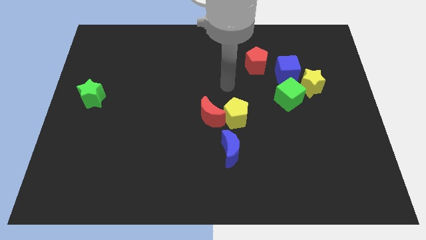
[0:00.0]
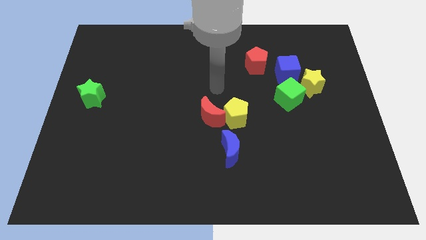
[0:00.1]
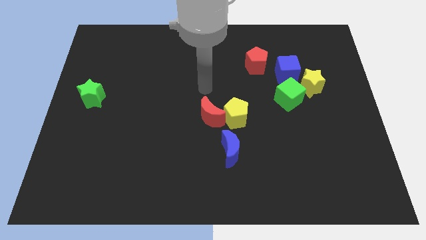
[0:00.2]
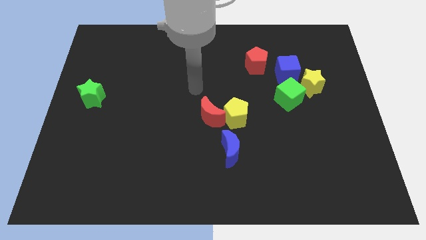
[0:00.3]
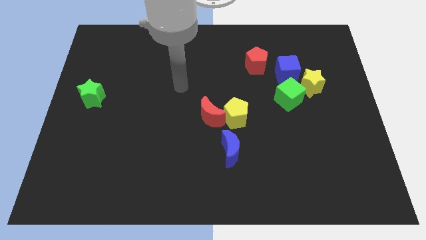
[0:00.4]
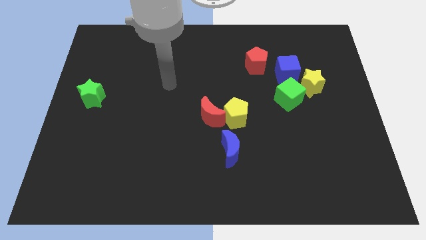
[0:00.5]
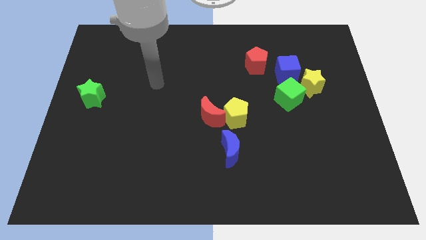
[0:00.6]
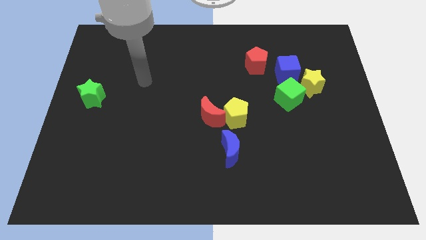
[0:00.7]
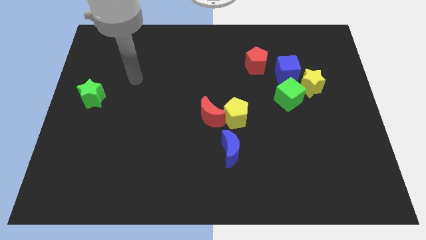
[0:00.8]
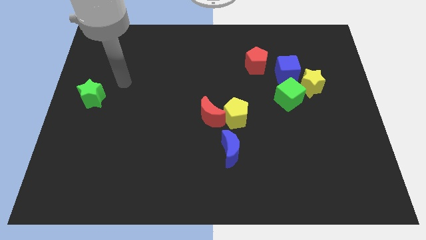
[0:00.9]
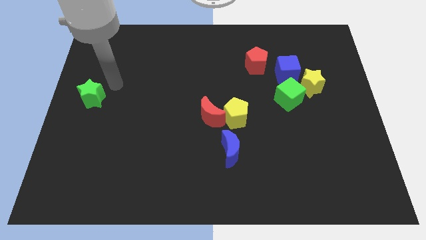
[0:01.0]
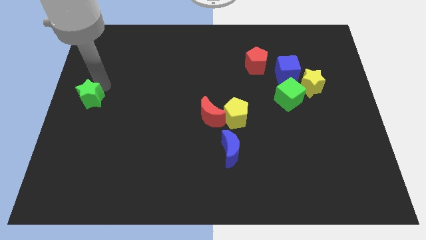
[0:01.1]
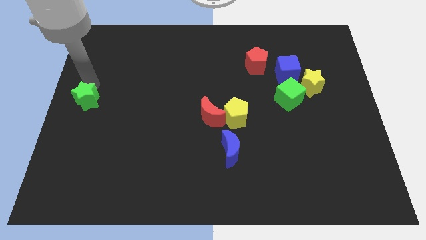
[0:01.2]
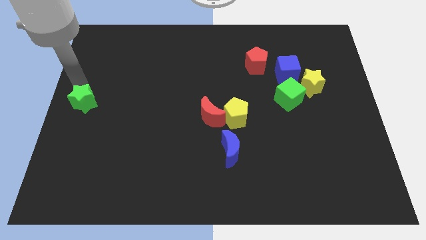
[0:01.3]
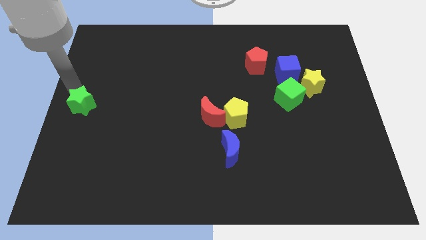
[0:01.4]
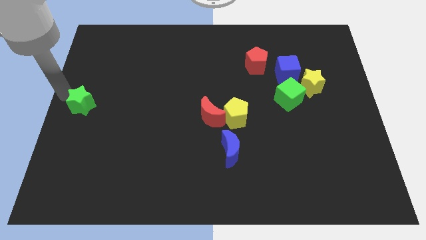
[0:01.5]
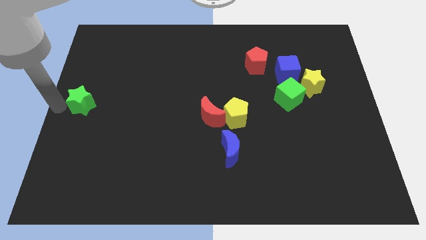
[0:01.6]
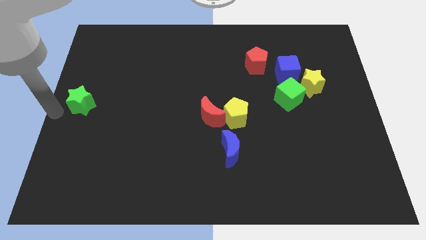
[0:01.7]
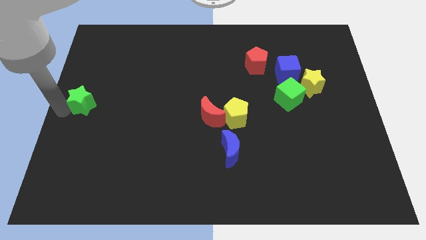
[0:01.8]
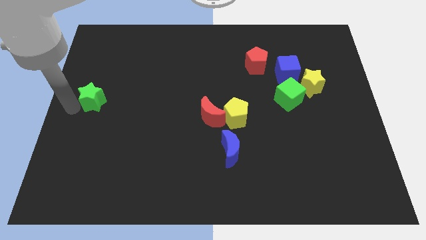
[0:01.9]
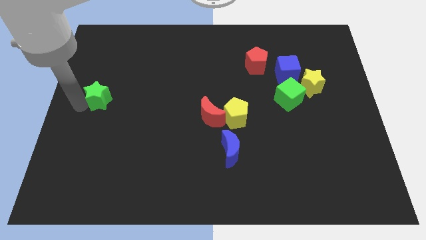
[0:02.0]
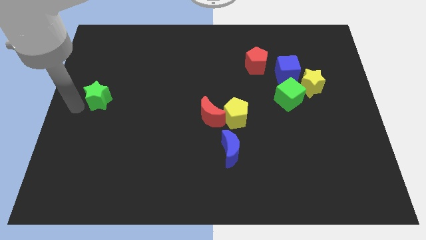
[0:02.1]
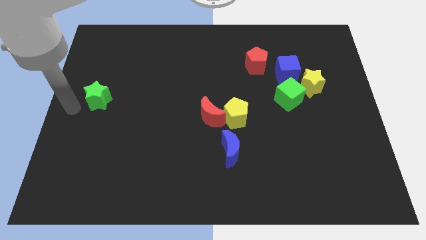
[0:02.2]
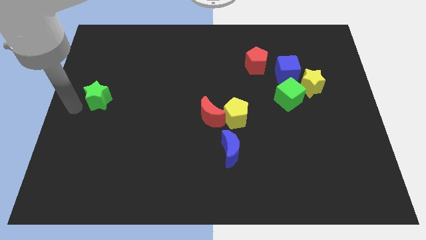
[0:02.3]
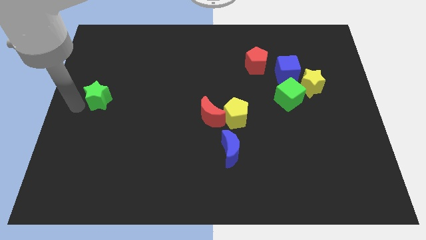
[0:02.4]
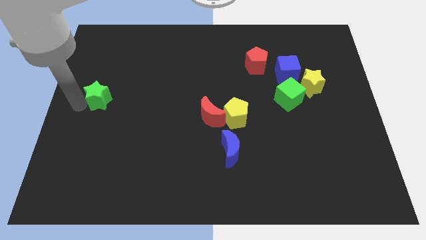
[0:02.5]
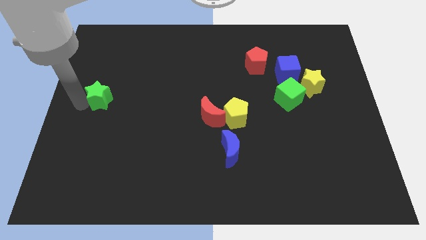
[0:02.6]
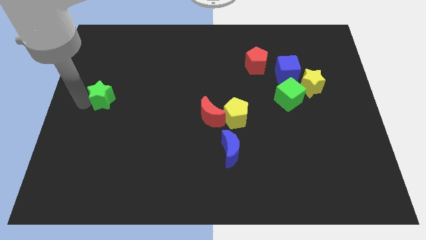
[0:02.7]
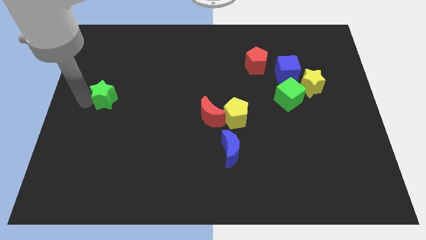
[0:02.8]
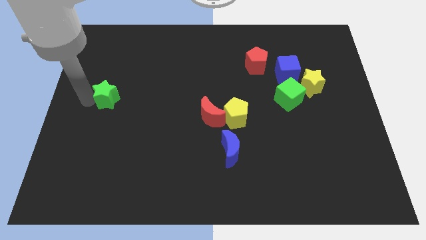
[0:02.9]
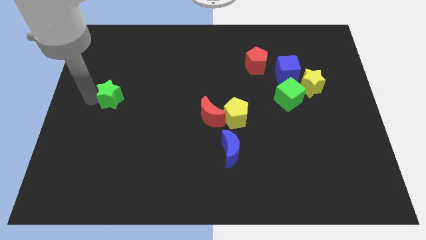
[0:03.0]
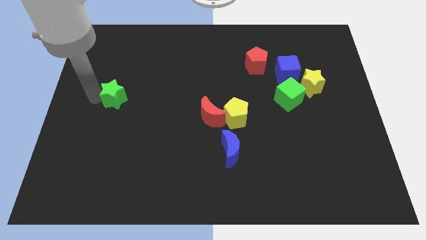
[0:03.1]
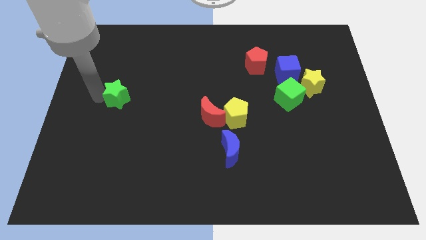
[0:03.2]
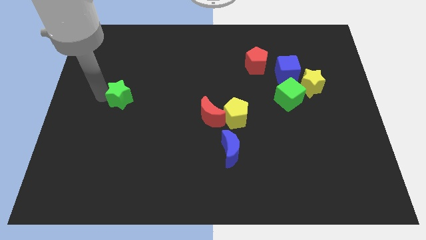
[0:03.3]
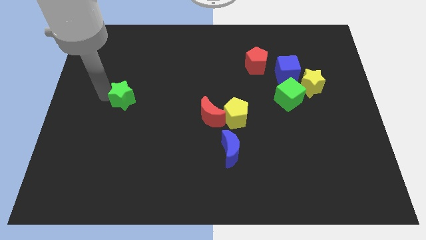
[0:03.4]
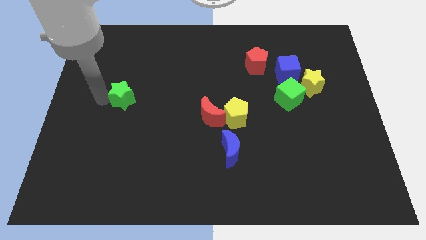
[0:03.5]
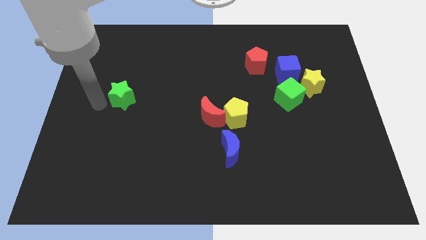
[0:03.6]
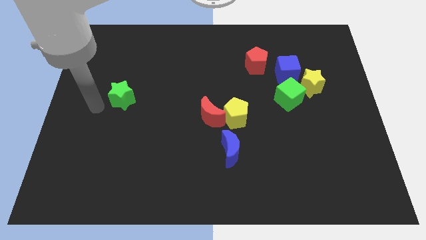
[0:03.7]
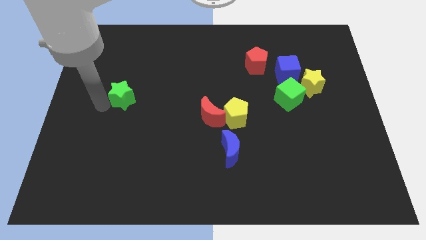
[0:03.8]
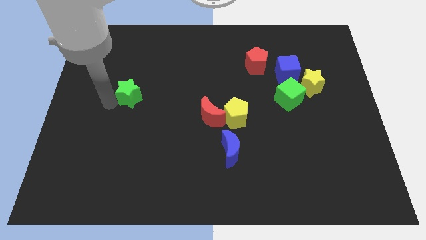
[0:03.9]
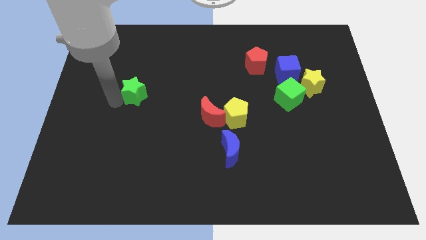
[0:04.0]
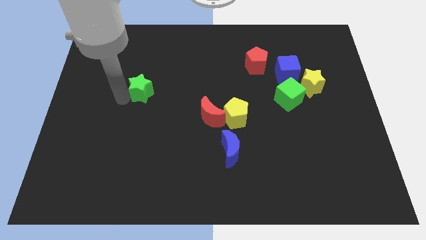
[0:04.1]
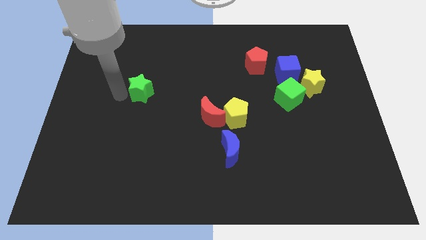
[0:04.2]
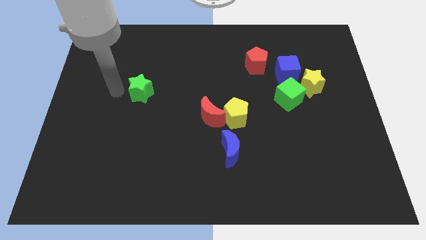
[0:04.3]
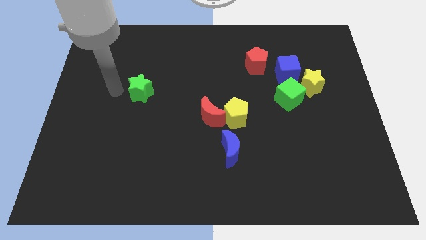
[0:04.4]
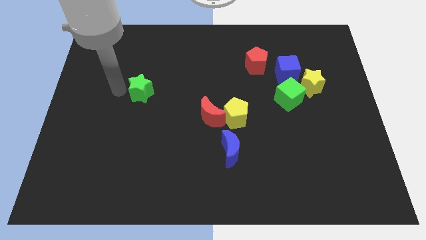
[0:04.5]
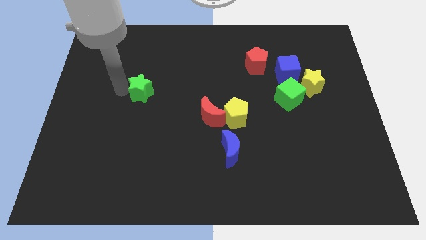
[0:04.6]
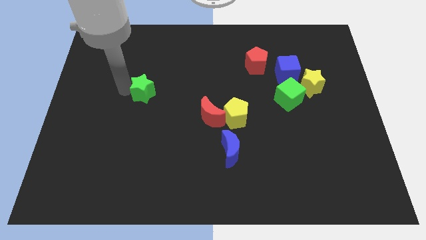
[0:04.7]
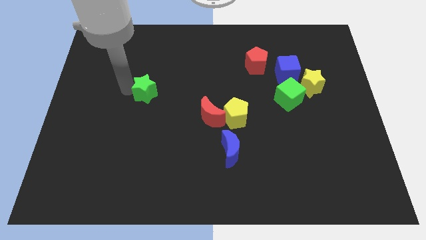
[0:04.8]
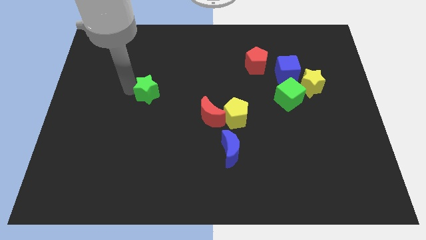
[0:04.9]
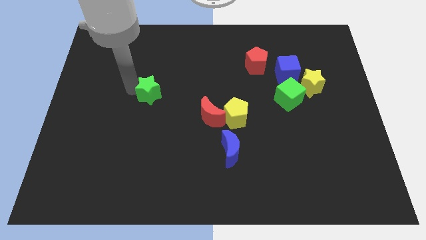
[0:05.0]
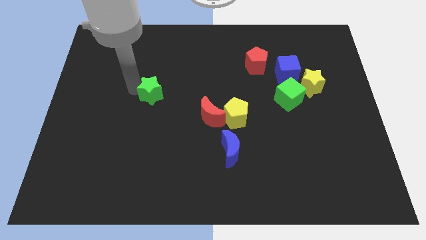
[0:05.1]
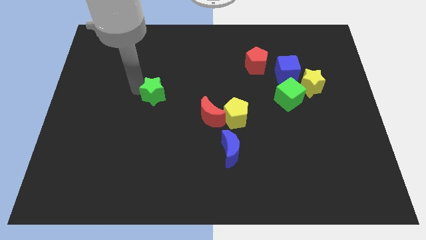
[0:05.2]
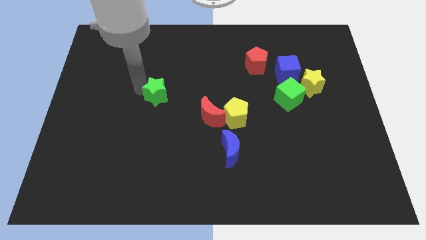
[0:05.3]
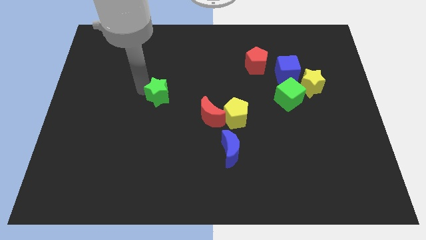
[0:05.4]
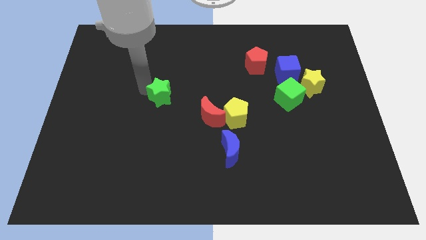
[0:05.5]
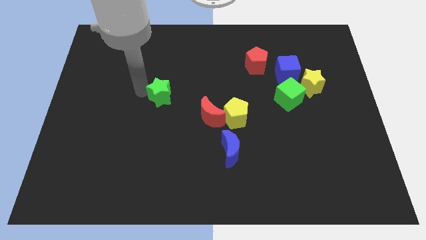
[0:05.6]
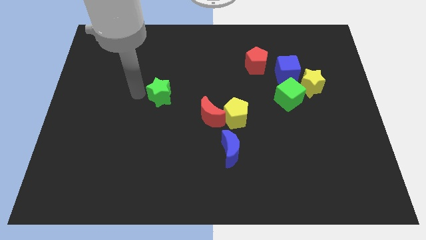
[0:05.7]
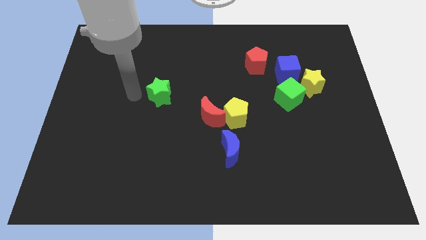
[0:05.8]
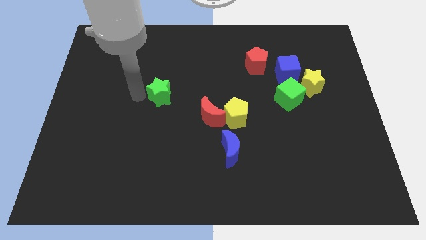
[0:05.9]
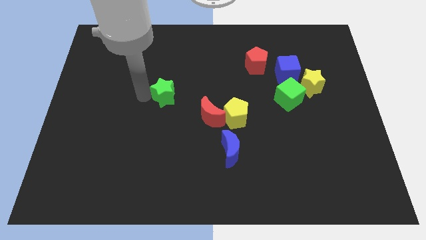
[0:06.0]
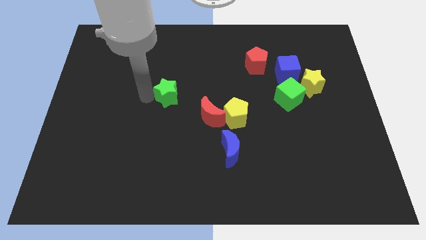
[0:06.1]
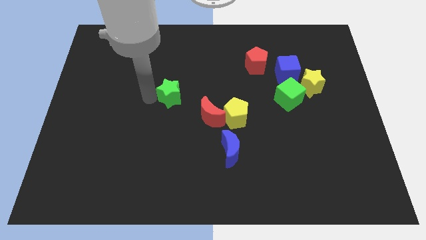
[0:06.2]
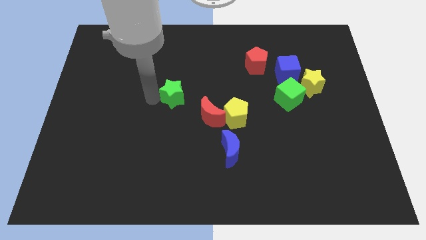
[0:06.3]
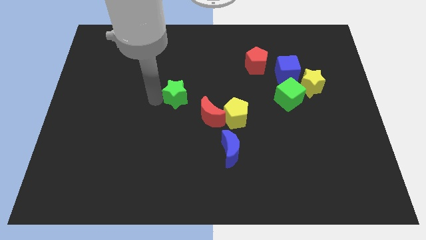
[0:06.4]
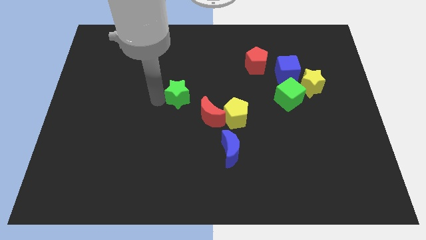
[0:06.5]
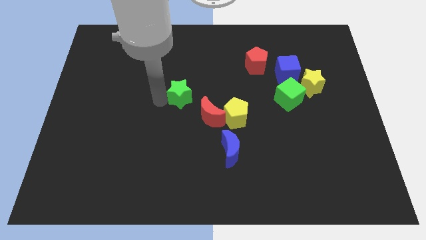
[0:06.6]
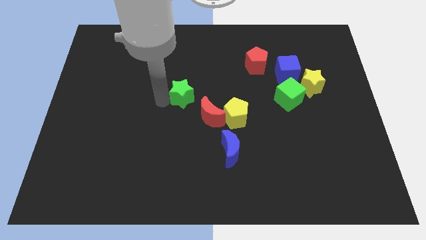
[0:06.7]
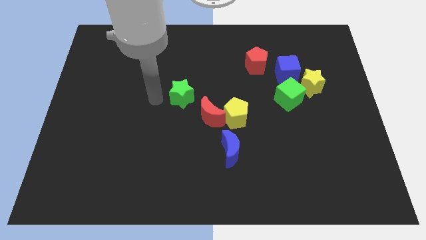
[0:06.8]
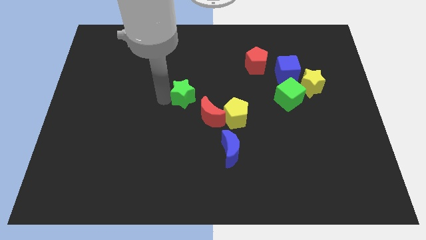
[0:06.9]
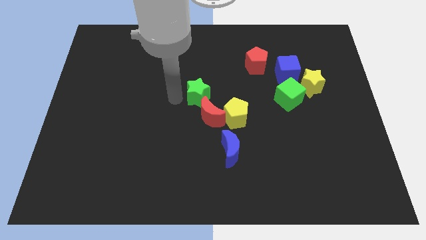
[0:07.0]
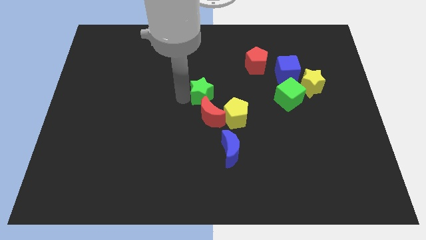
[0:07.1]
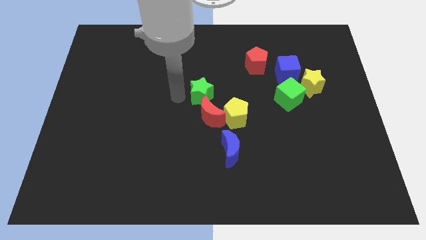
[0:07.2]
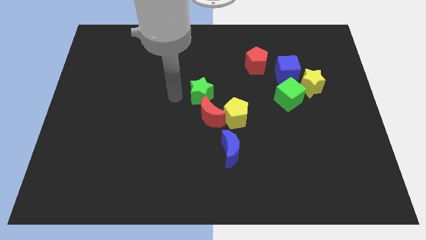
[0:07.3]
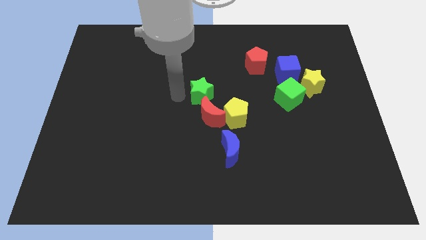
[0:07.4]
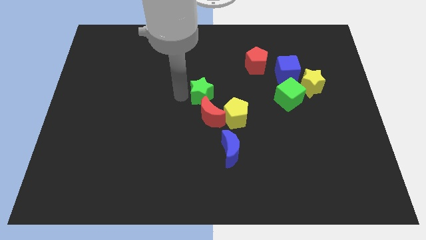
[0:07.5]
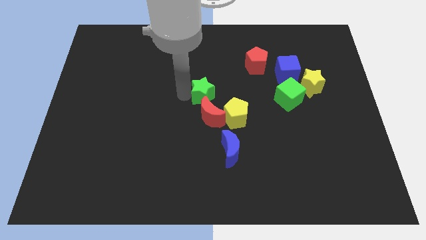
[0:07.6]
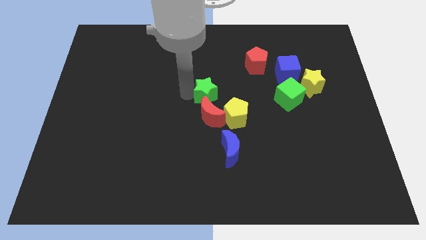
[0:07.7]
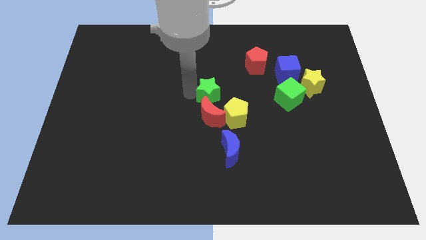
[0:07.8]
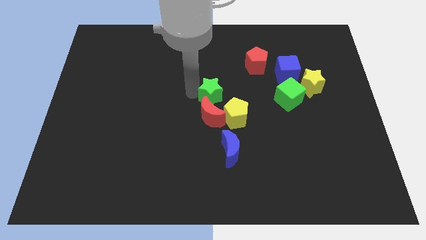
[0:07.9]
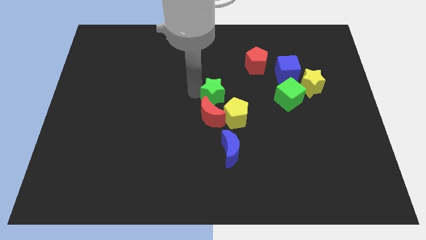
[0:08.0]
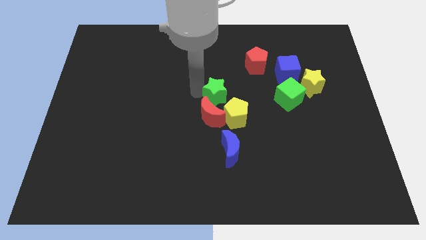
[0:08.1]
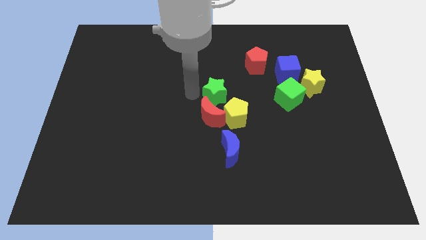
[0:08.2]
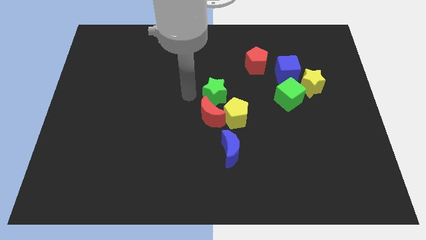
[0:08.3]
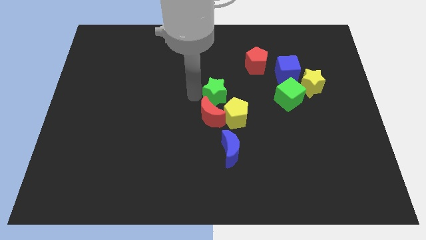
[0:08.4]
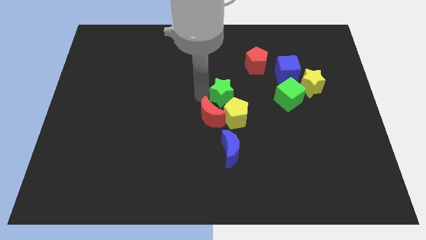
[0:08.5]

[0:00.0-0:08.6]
put the green star just left of the green cube
